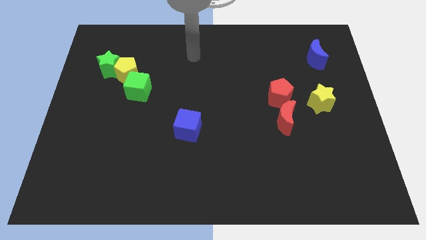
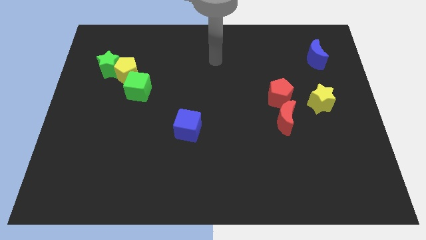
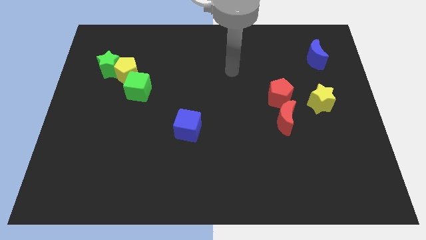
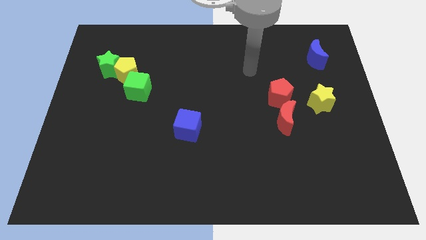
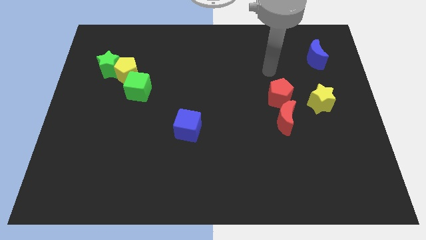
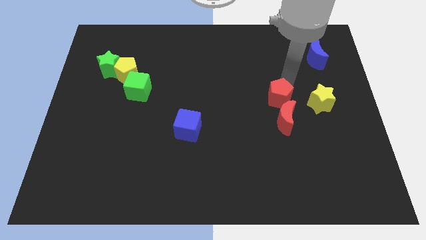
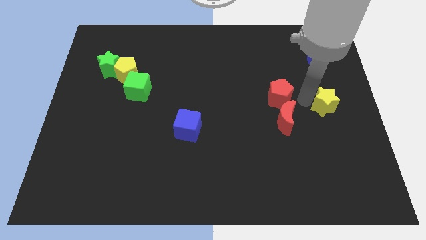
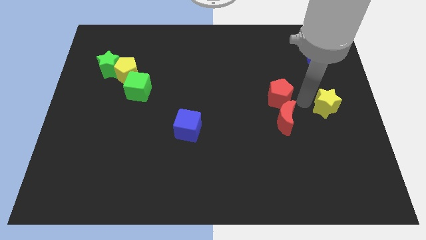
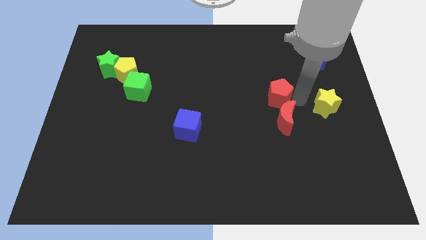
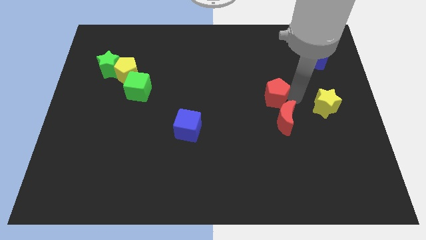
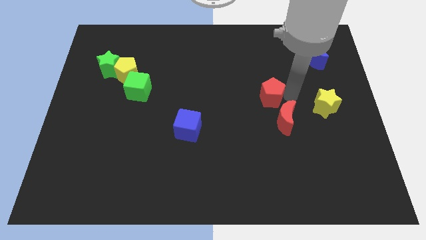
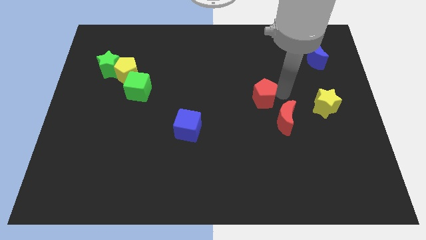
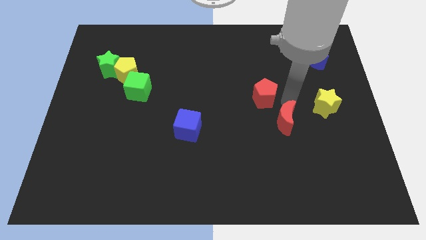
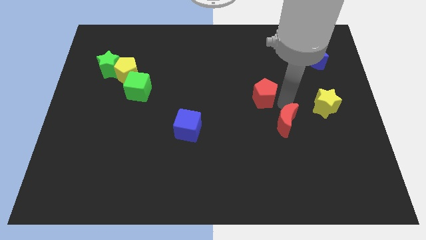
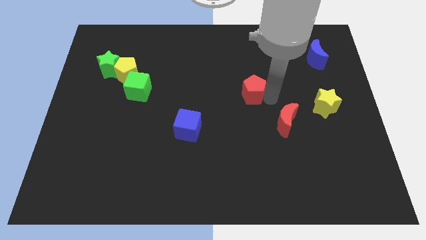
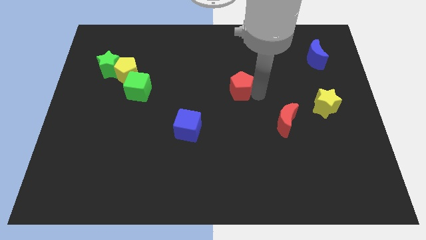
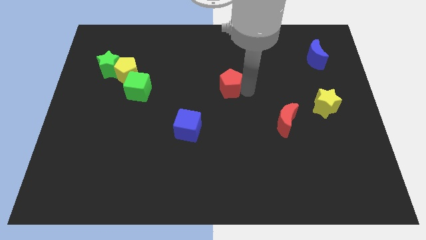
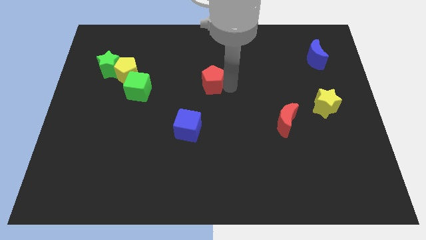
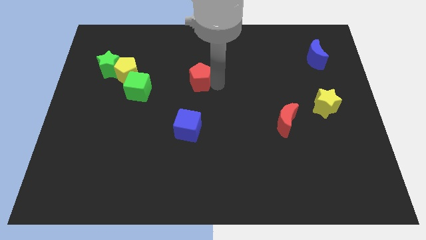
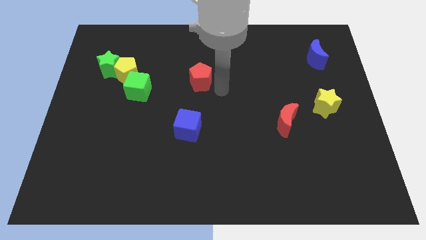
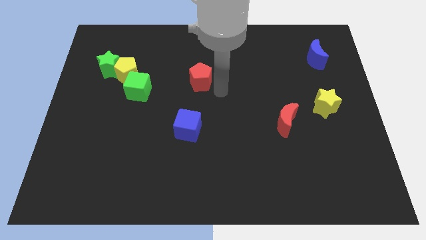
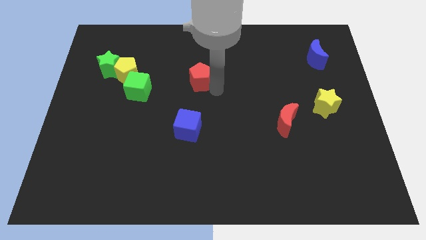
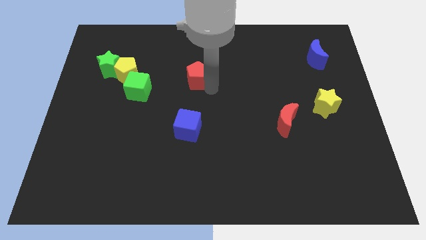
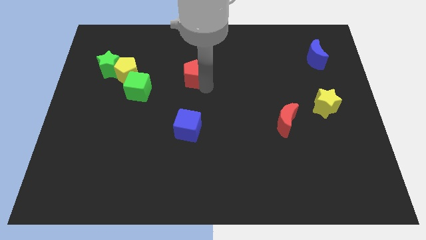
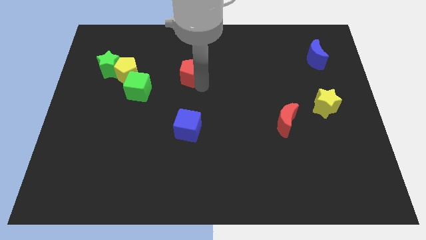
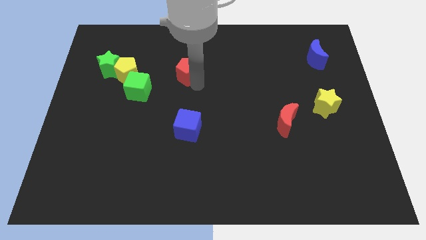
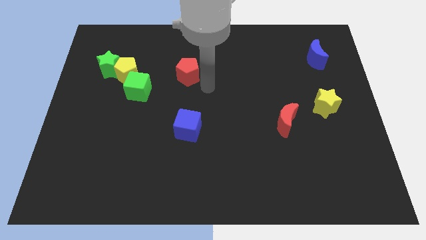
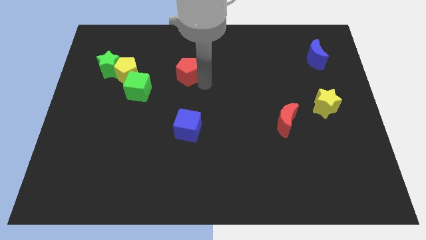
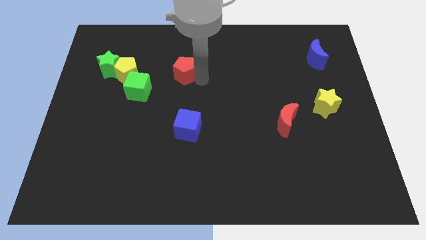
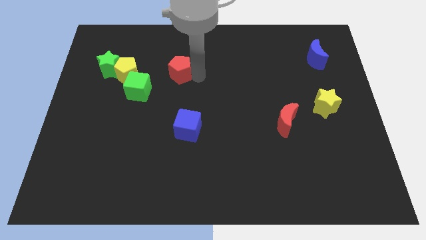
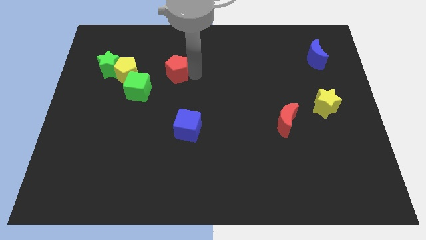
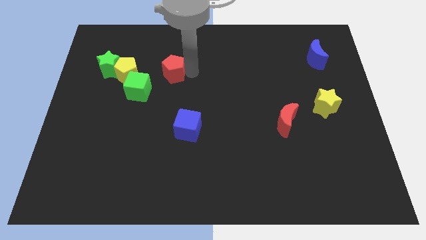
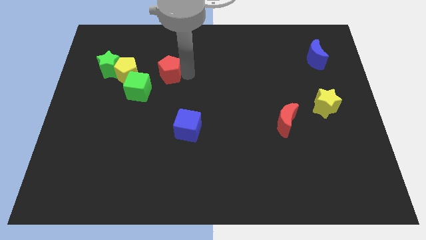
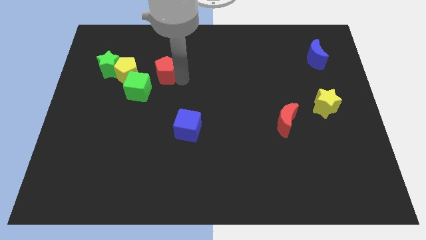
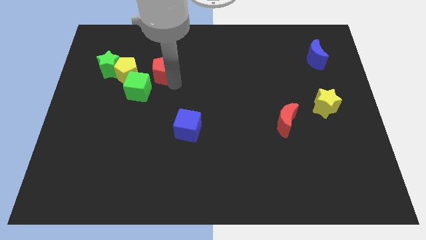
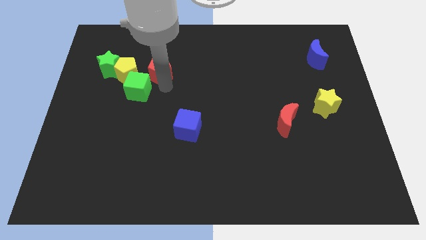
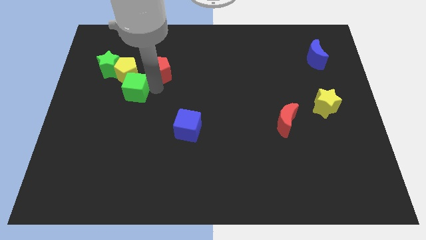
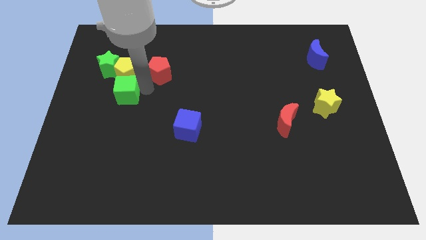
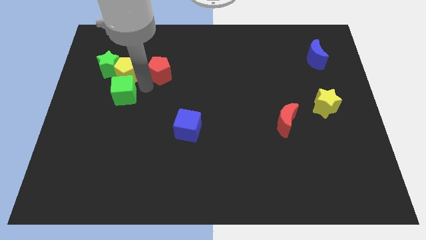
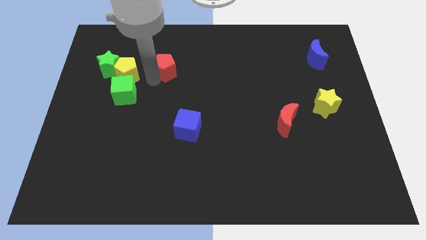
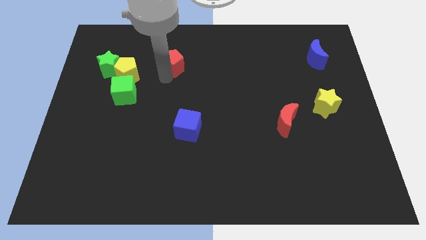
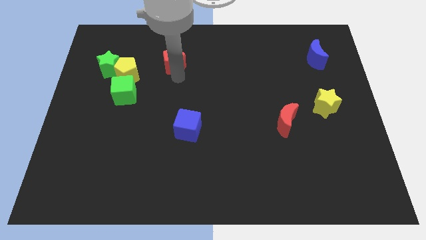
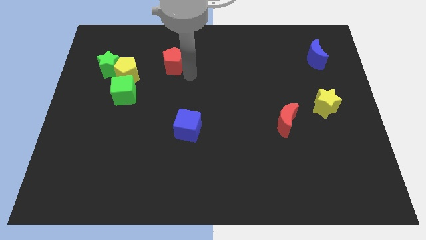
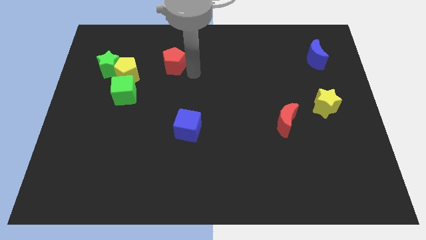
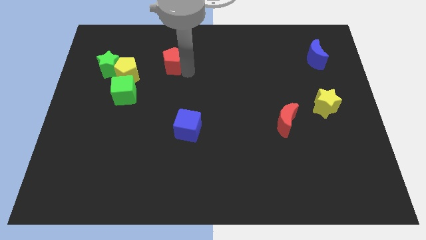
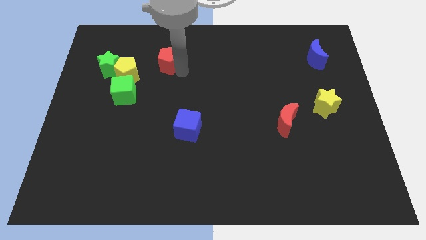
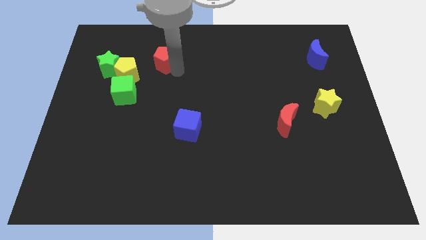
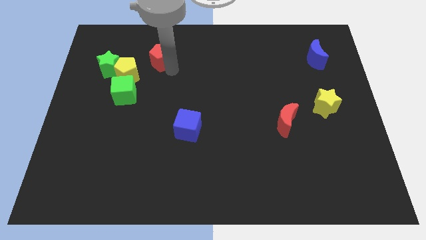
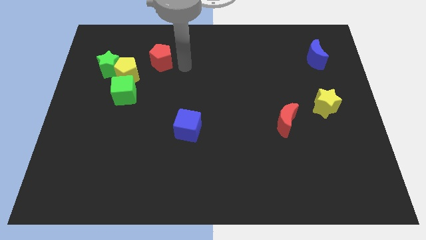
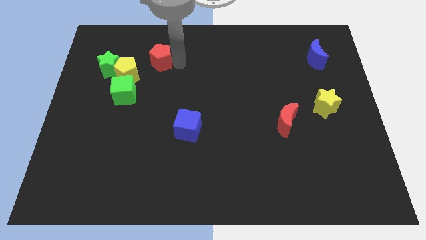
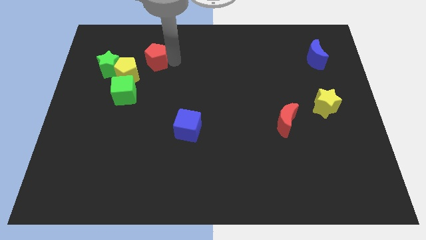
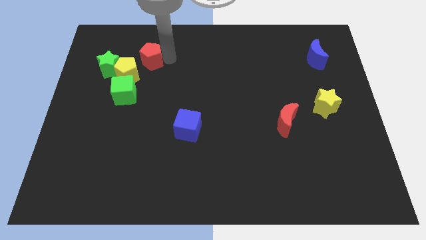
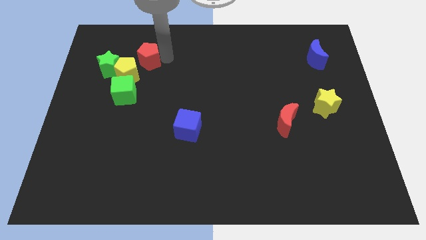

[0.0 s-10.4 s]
slide the red pentagon to the top right of the green star

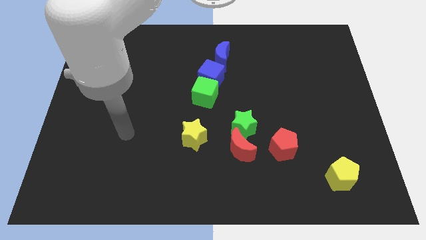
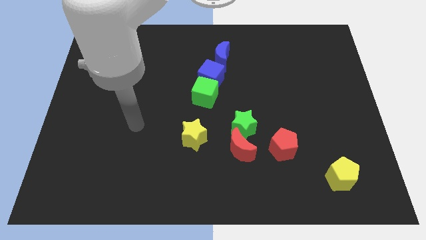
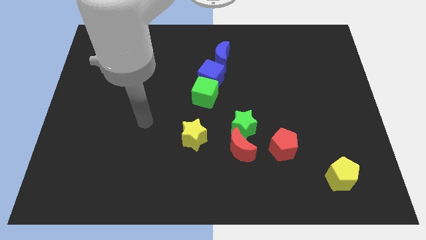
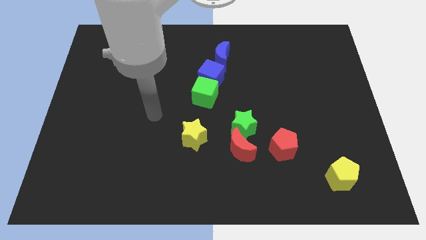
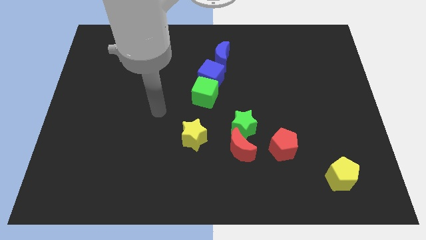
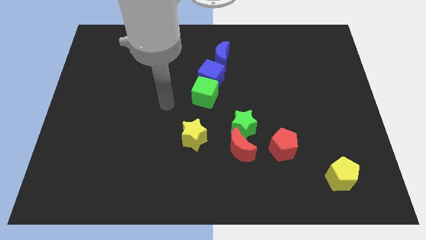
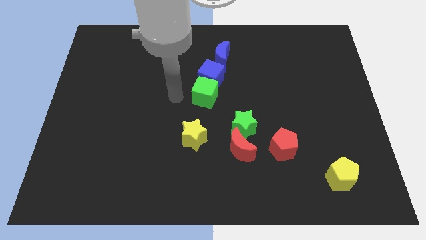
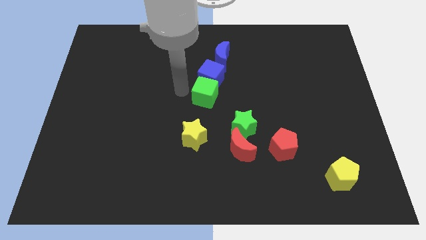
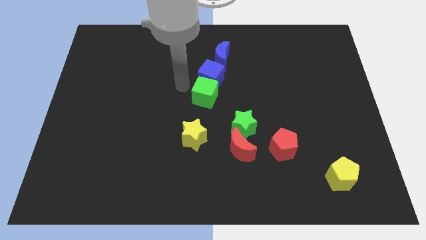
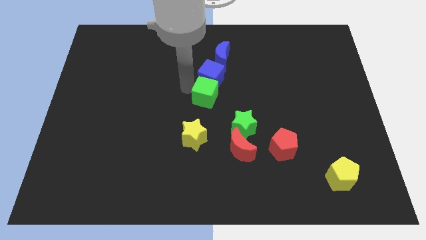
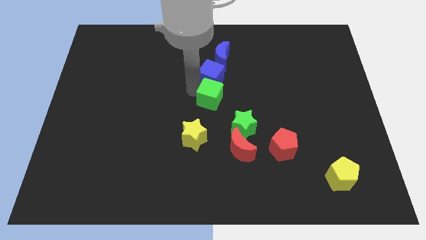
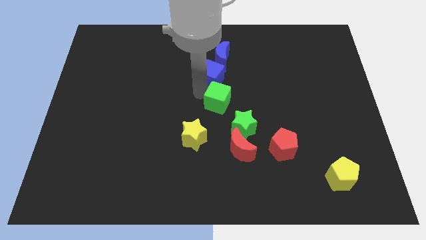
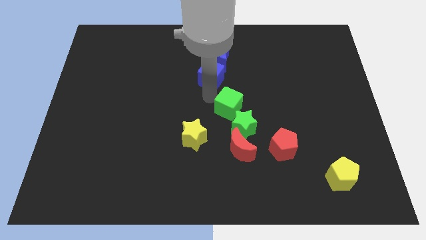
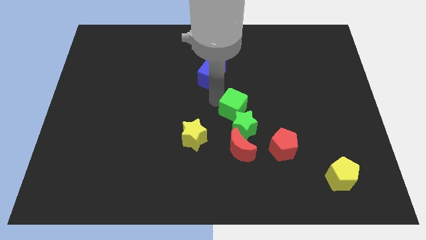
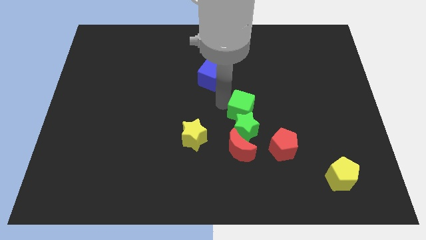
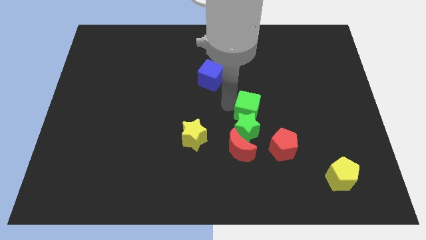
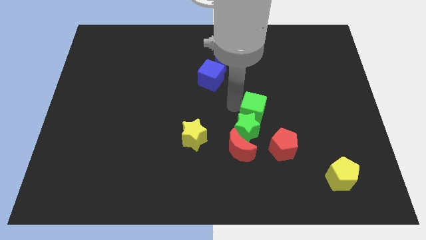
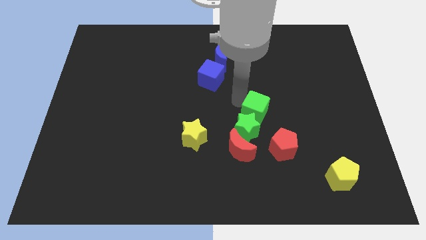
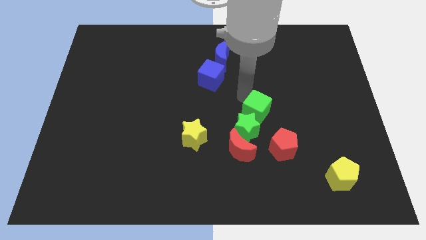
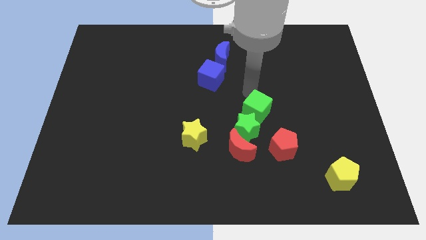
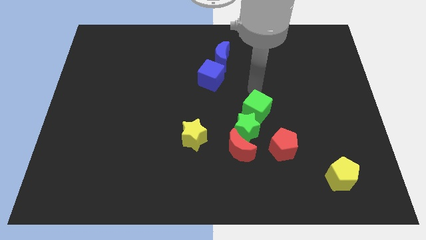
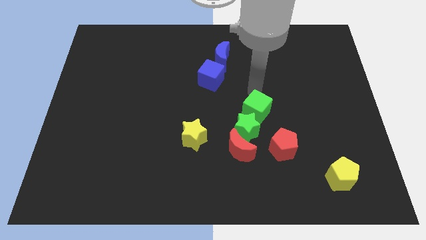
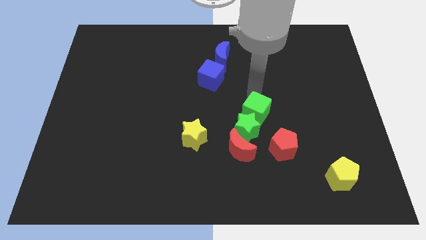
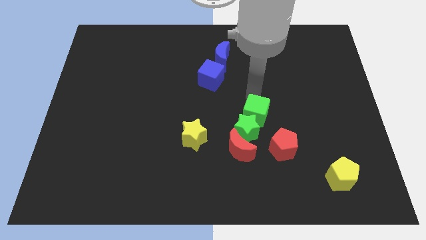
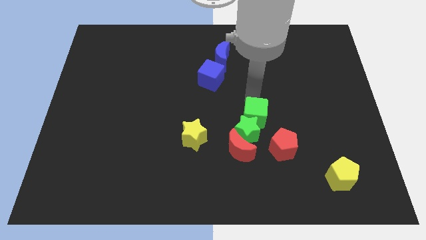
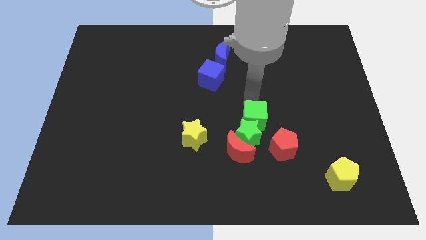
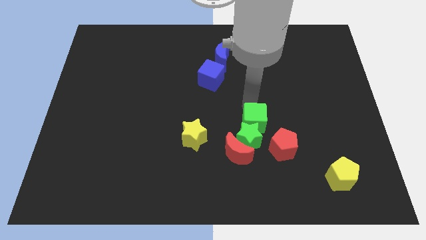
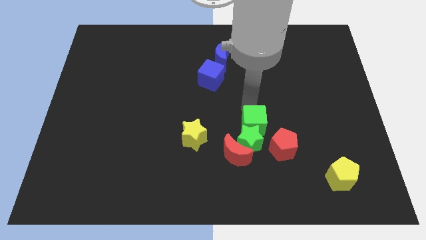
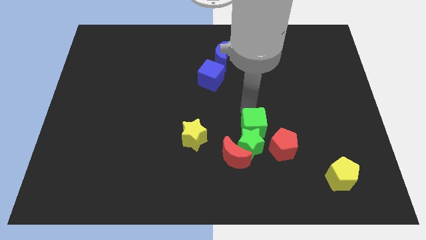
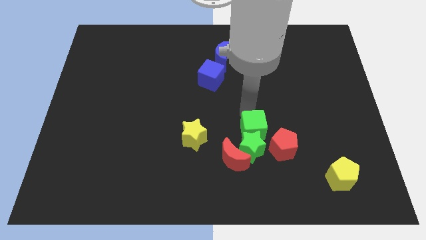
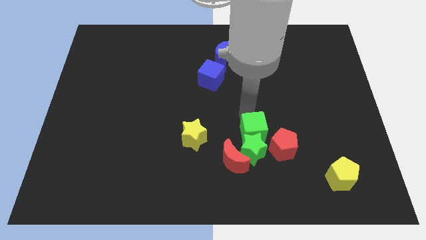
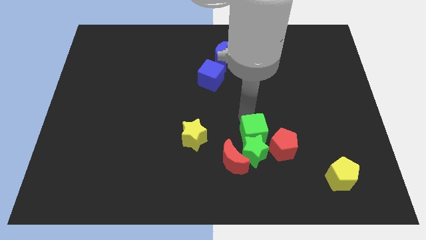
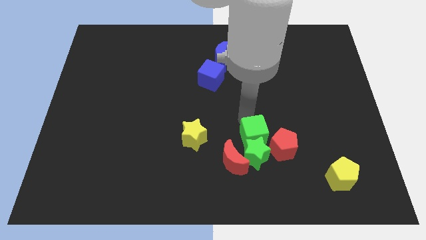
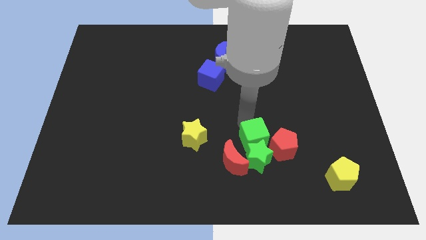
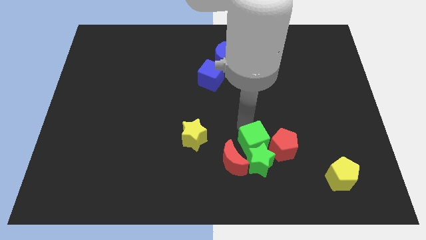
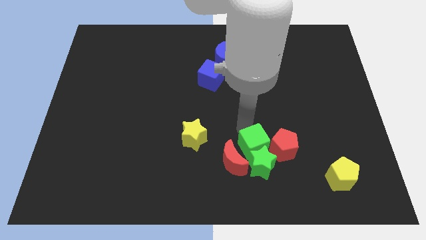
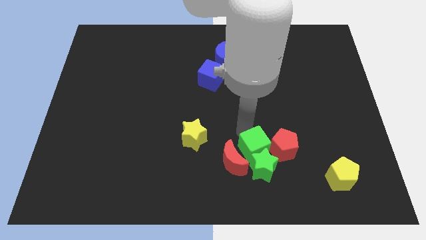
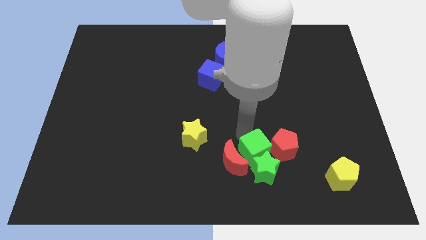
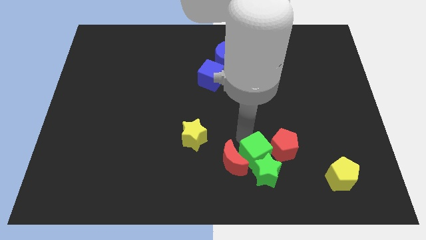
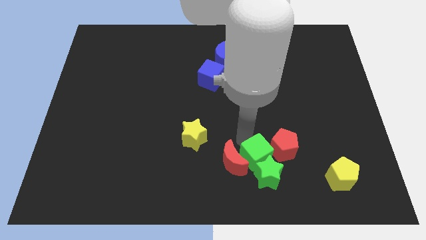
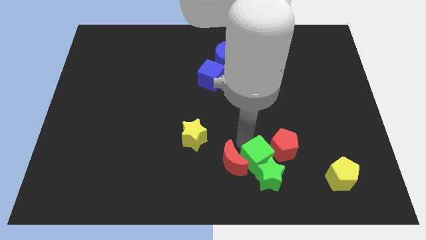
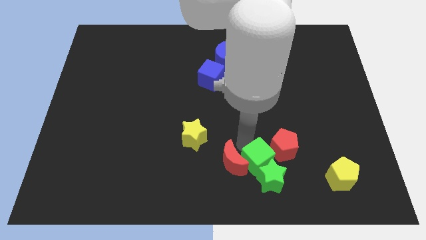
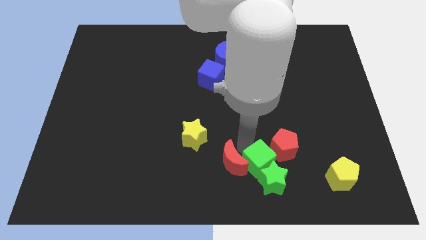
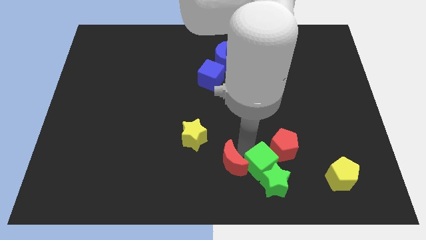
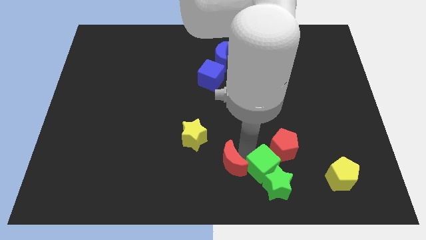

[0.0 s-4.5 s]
put the green cube just left of the yellow pentagon
